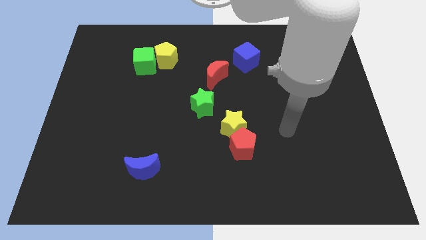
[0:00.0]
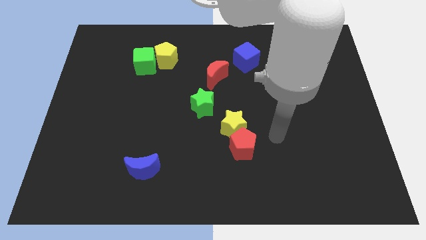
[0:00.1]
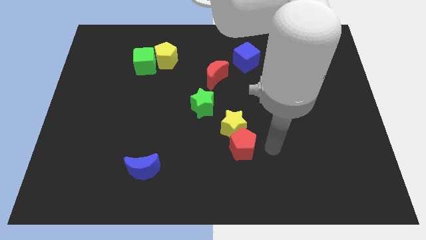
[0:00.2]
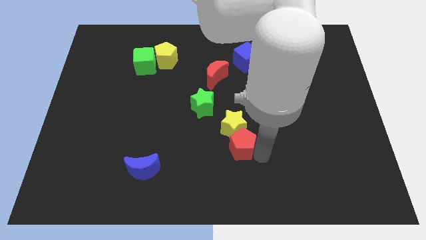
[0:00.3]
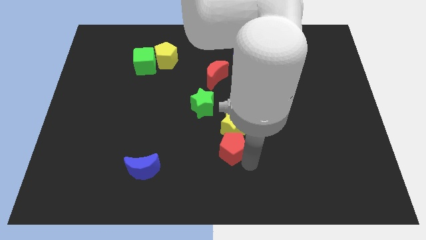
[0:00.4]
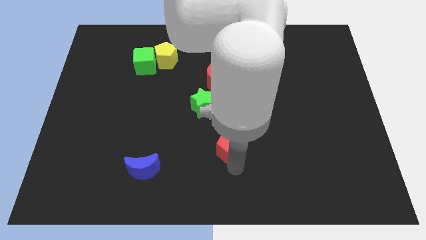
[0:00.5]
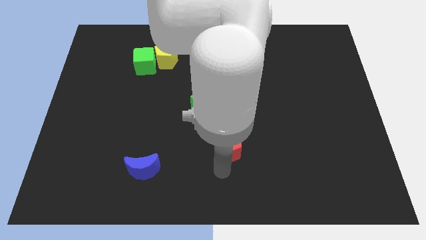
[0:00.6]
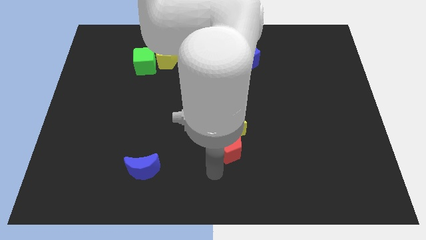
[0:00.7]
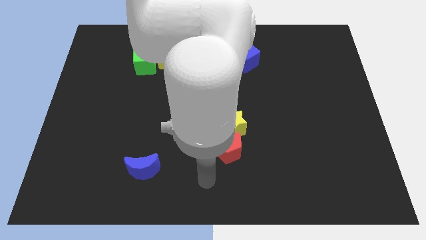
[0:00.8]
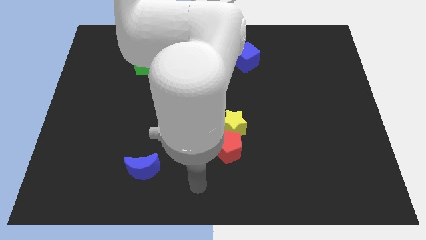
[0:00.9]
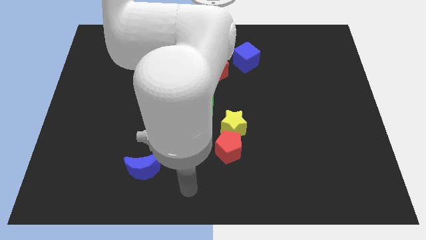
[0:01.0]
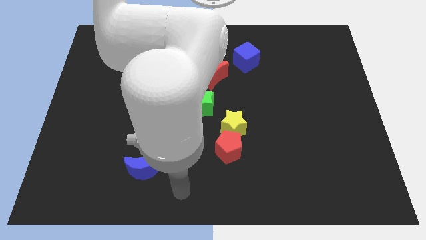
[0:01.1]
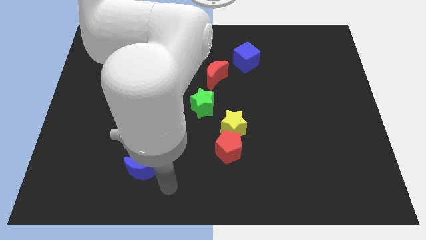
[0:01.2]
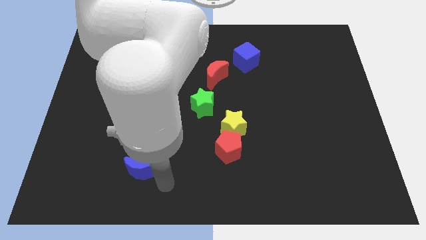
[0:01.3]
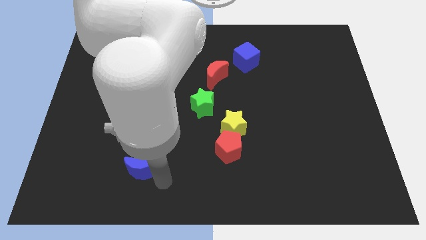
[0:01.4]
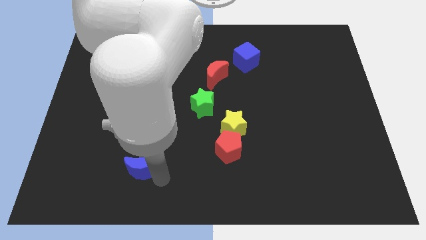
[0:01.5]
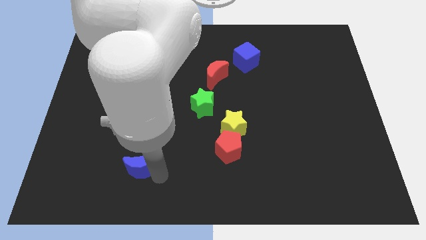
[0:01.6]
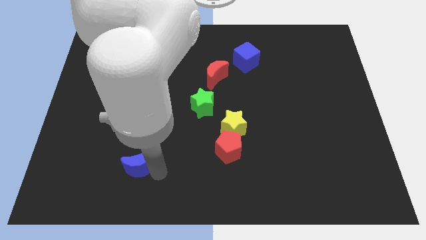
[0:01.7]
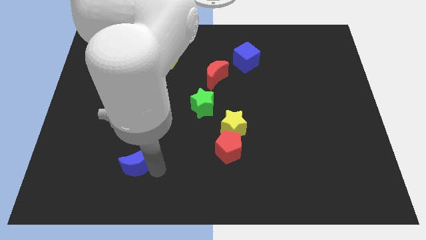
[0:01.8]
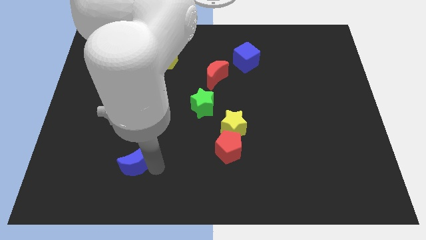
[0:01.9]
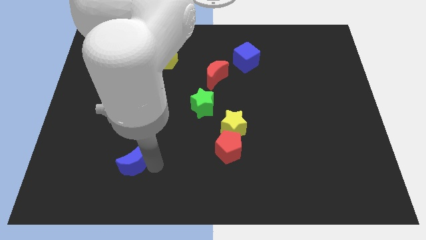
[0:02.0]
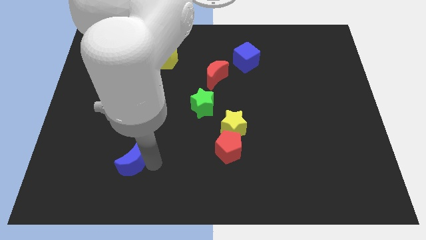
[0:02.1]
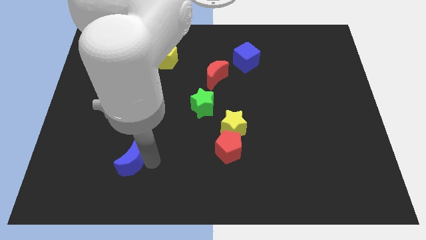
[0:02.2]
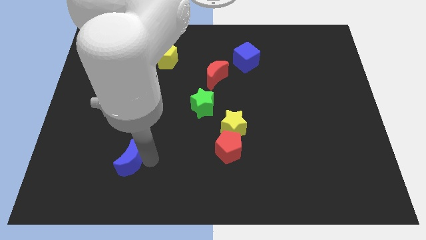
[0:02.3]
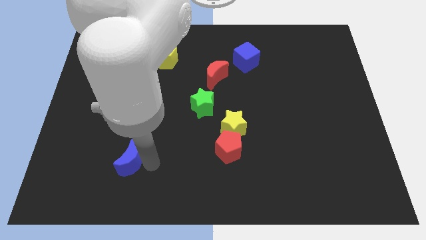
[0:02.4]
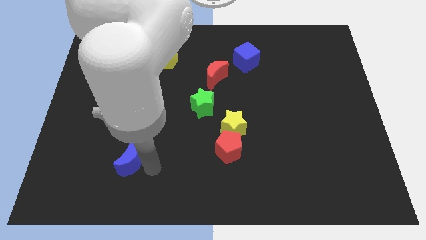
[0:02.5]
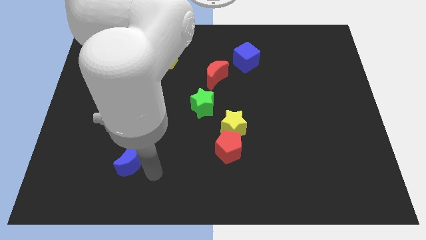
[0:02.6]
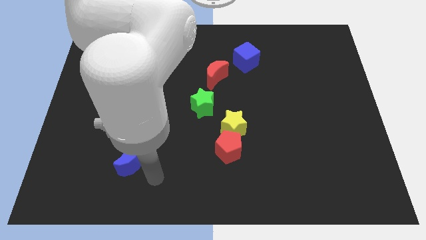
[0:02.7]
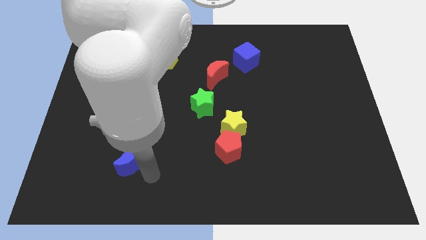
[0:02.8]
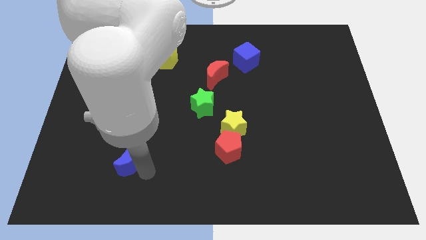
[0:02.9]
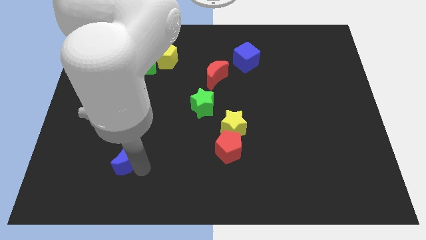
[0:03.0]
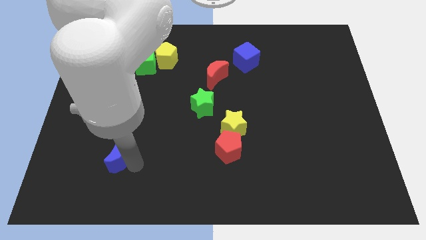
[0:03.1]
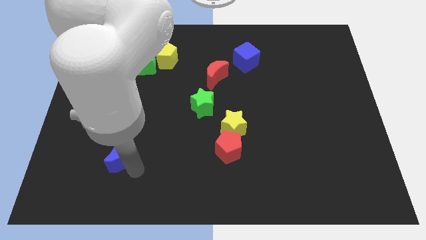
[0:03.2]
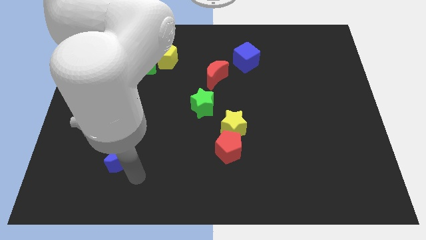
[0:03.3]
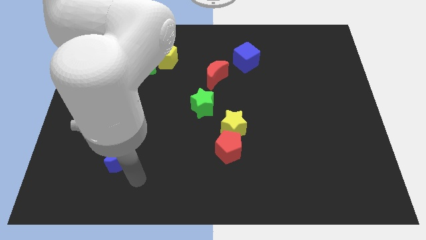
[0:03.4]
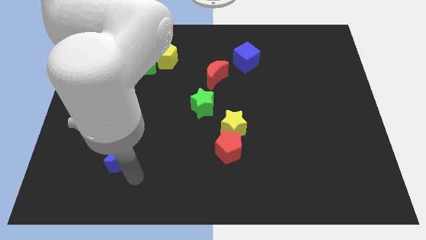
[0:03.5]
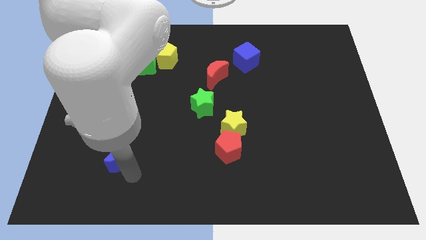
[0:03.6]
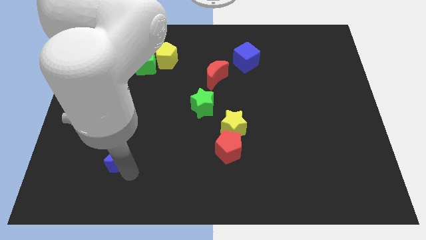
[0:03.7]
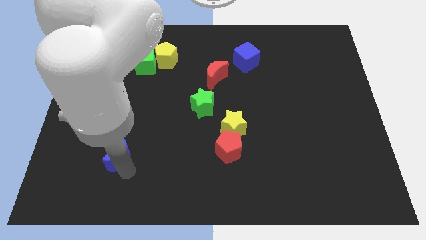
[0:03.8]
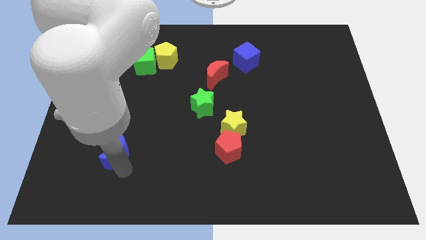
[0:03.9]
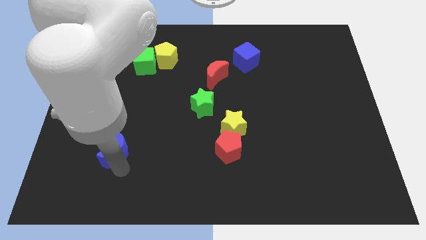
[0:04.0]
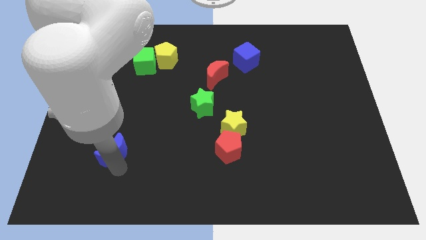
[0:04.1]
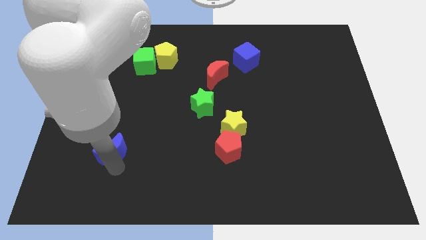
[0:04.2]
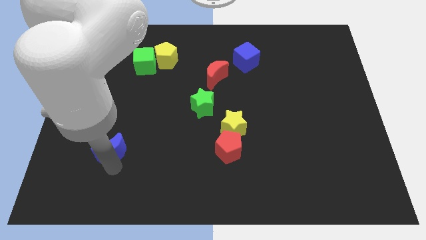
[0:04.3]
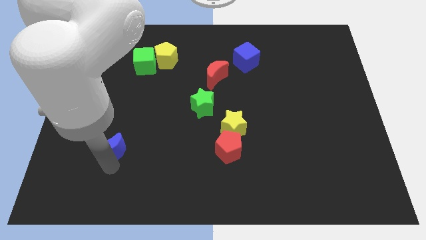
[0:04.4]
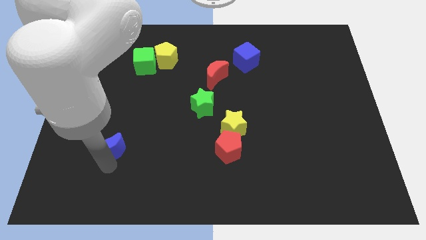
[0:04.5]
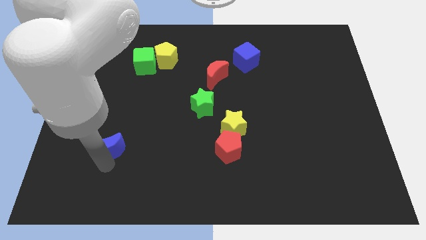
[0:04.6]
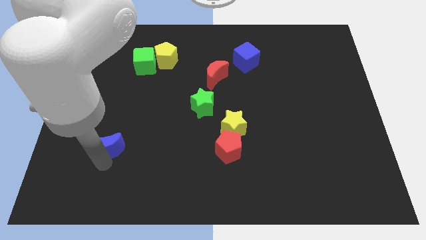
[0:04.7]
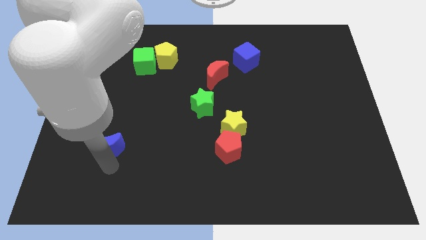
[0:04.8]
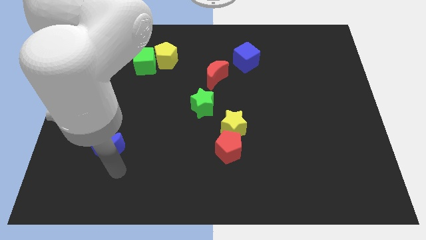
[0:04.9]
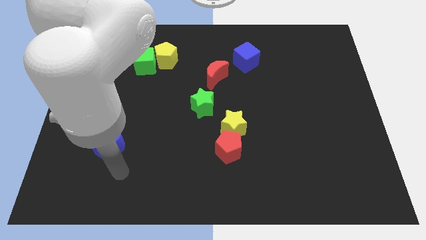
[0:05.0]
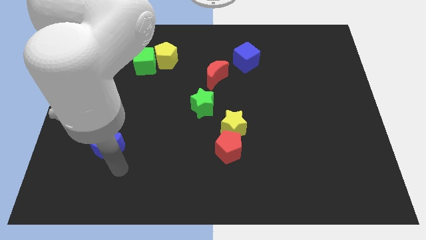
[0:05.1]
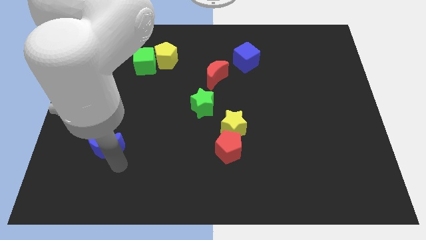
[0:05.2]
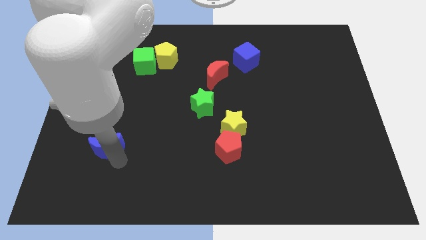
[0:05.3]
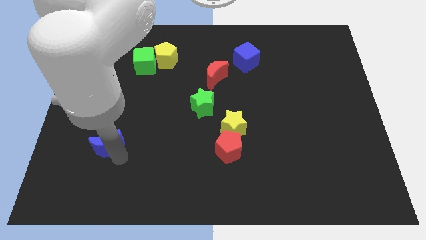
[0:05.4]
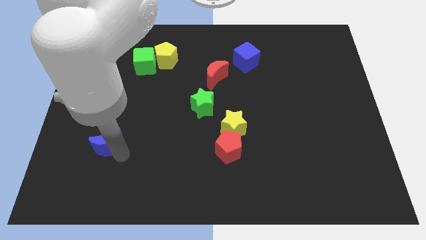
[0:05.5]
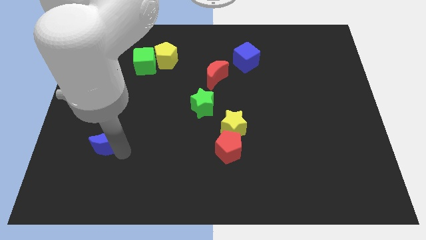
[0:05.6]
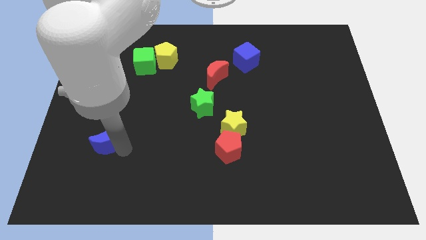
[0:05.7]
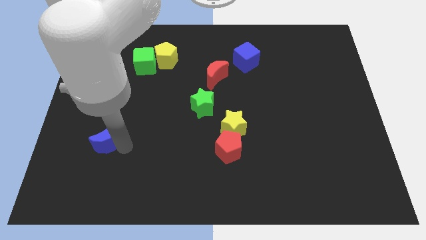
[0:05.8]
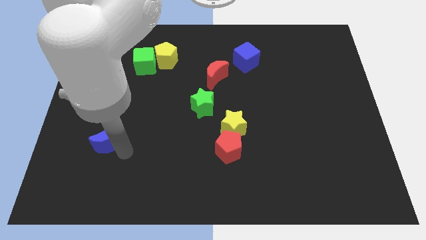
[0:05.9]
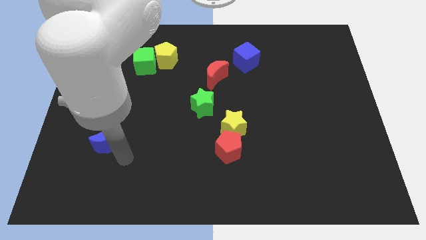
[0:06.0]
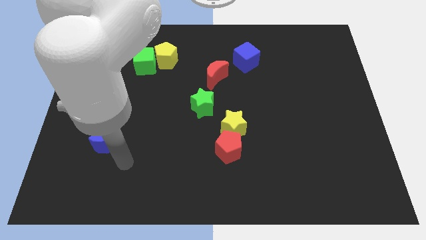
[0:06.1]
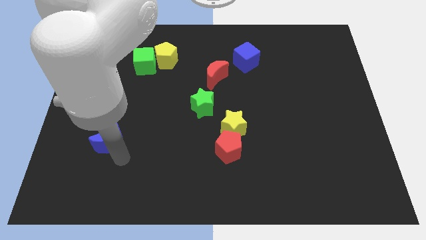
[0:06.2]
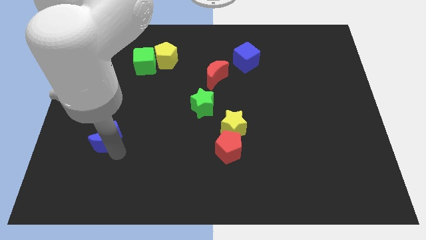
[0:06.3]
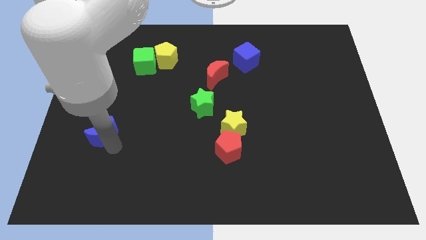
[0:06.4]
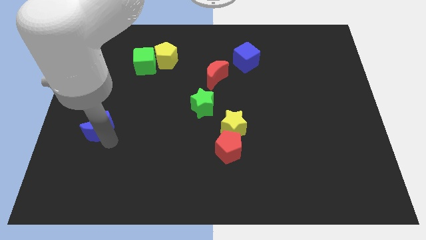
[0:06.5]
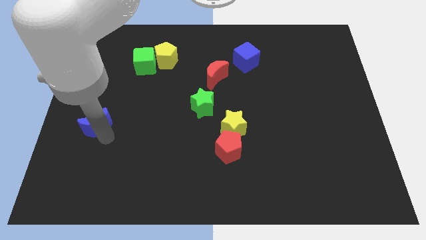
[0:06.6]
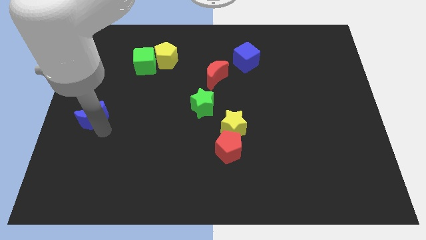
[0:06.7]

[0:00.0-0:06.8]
move the blue moon to the center left

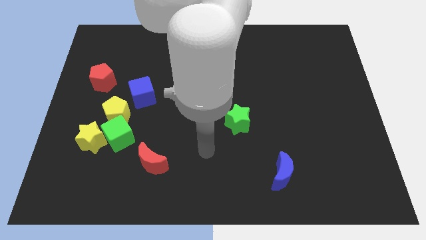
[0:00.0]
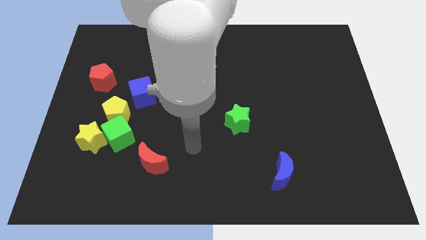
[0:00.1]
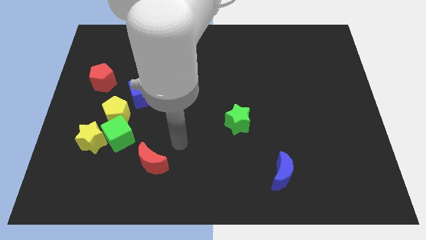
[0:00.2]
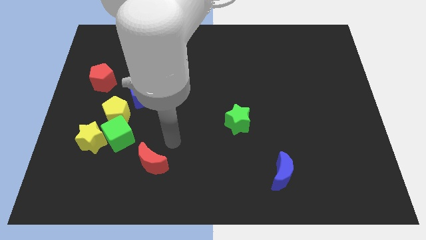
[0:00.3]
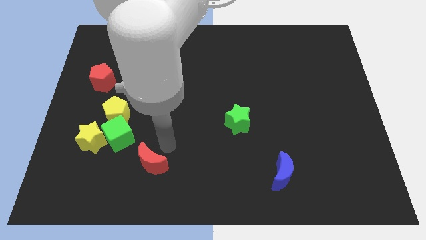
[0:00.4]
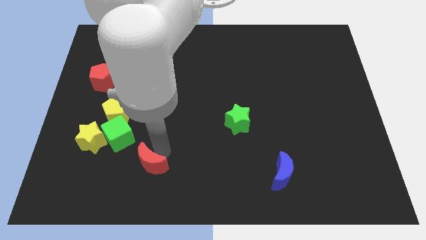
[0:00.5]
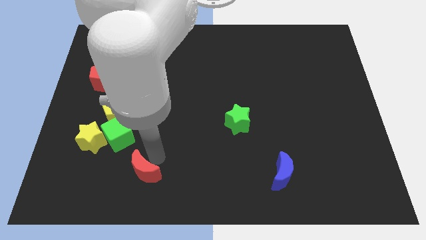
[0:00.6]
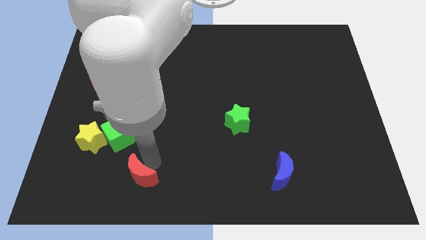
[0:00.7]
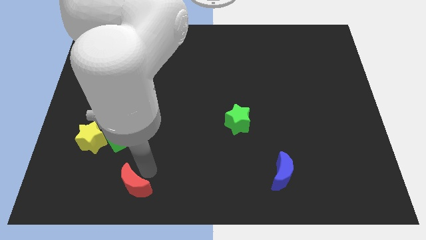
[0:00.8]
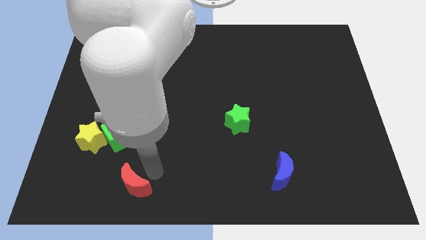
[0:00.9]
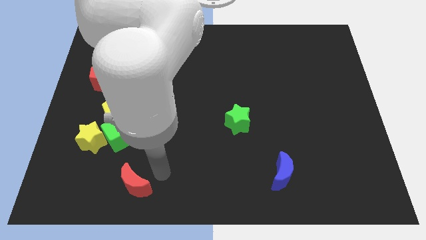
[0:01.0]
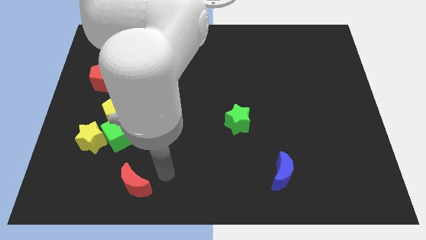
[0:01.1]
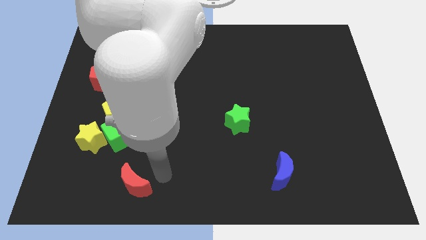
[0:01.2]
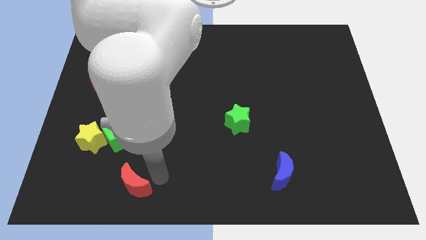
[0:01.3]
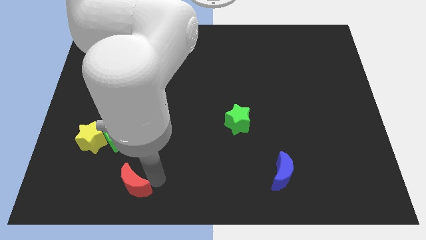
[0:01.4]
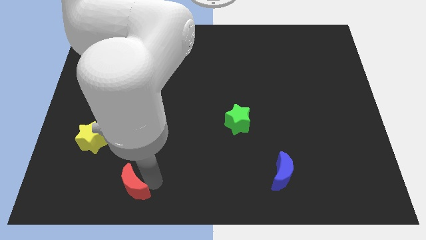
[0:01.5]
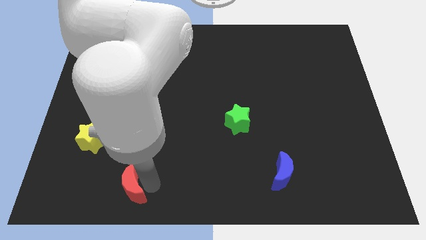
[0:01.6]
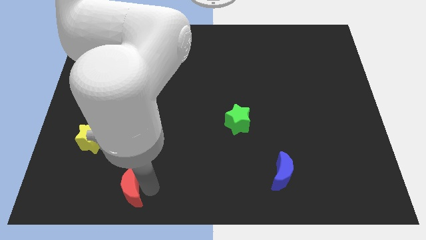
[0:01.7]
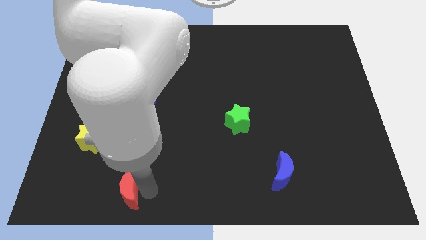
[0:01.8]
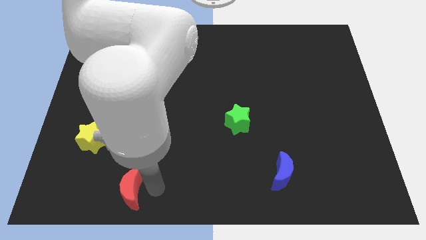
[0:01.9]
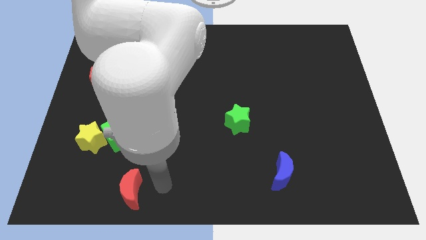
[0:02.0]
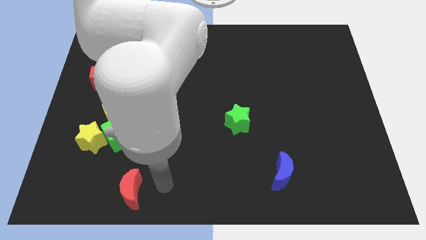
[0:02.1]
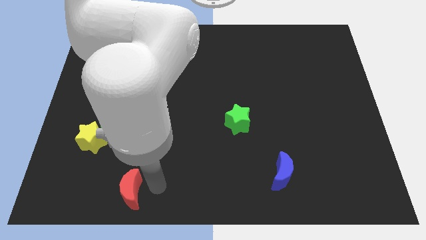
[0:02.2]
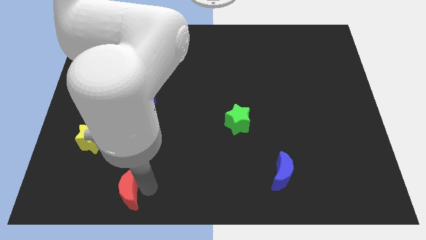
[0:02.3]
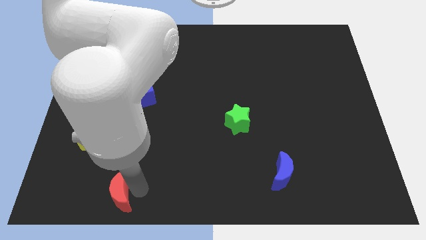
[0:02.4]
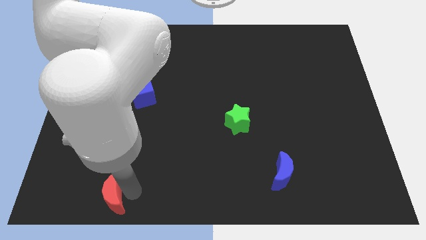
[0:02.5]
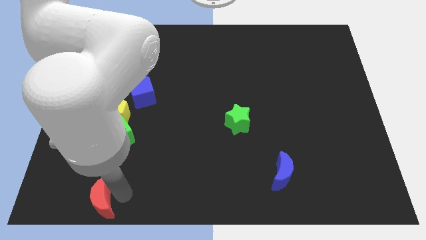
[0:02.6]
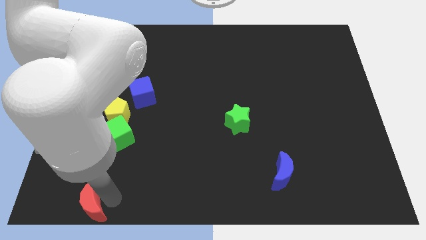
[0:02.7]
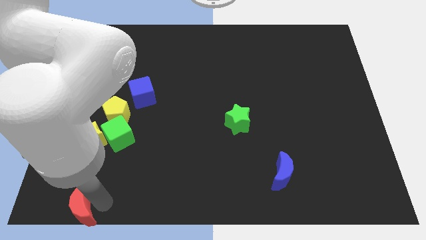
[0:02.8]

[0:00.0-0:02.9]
move the red moon to the bottom left of the board
